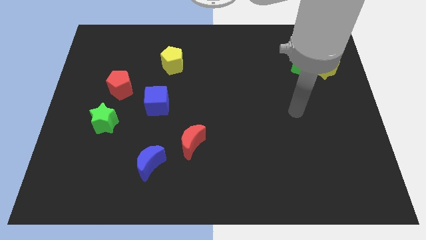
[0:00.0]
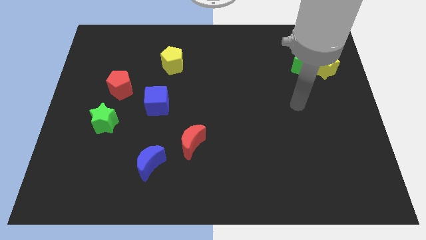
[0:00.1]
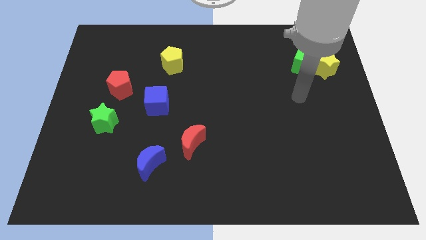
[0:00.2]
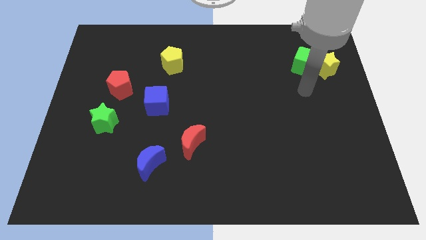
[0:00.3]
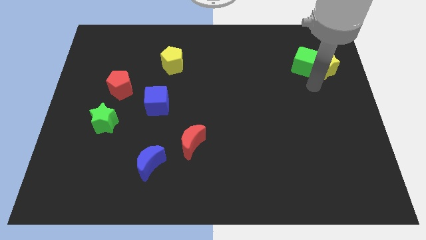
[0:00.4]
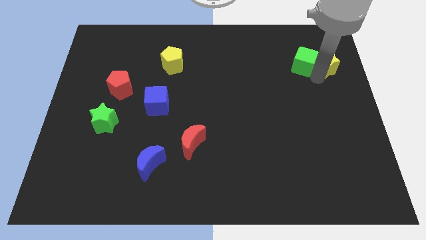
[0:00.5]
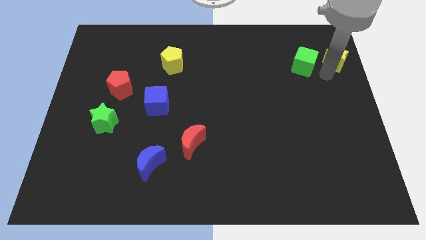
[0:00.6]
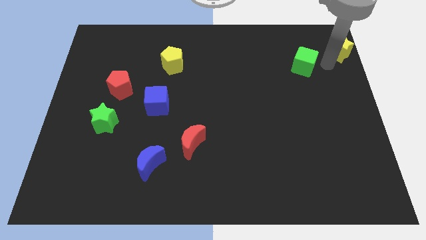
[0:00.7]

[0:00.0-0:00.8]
pull the green cube apart from the yellow star

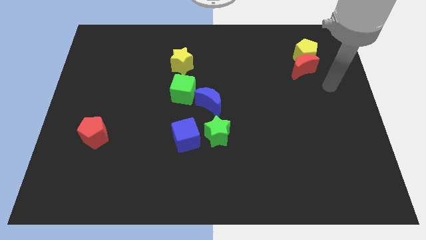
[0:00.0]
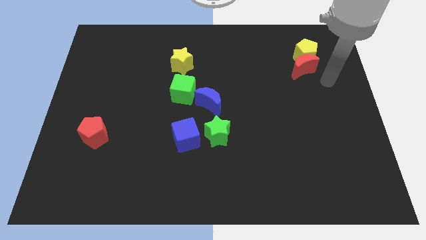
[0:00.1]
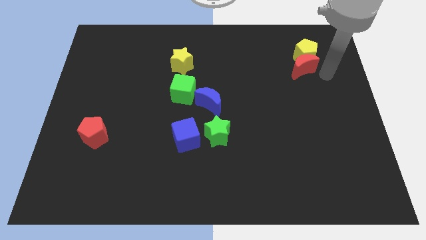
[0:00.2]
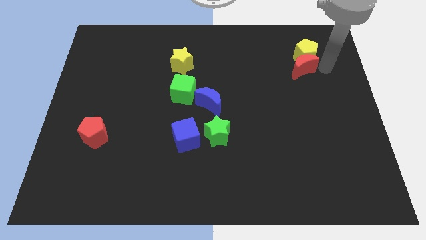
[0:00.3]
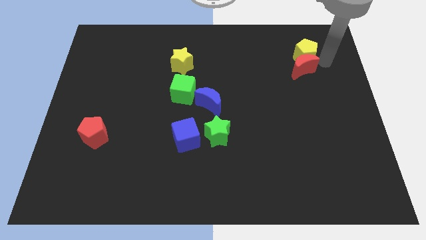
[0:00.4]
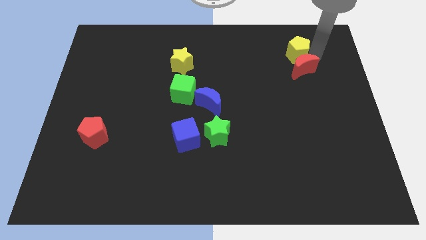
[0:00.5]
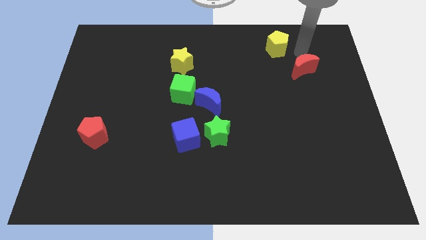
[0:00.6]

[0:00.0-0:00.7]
separate the red moon from the yellow pentagon

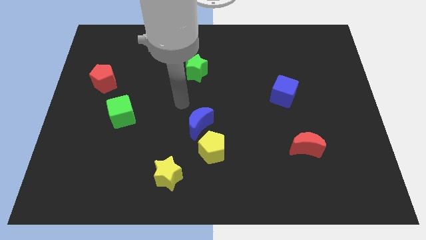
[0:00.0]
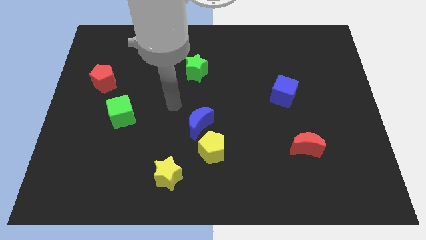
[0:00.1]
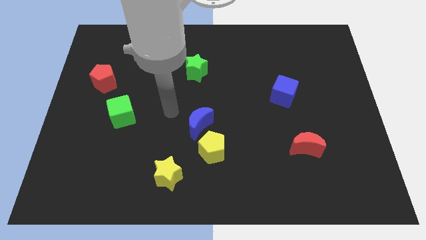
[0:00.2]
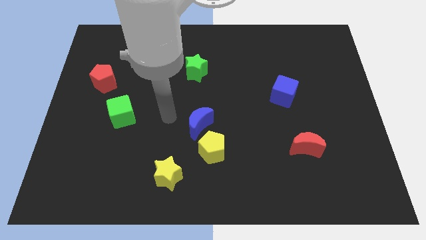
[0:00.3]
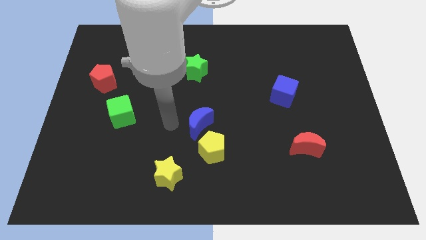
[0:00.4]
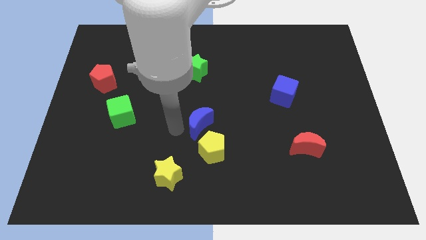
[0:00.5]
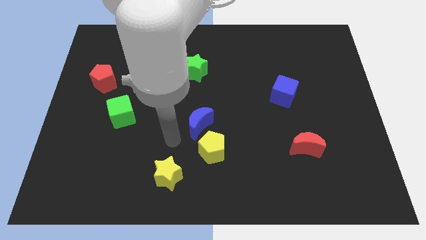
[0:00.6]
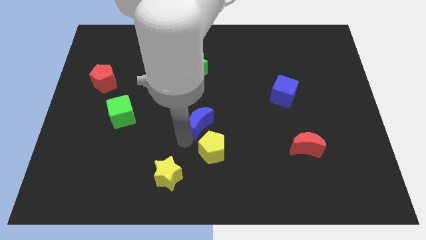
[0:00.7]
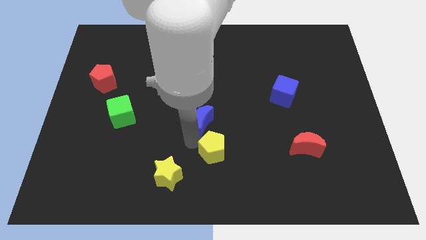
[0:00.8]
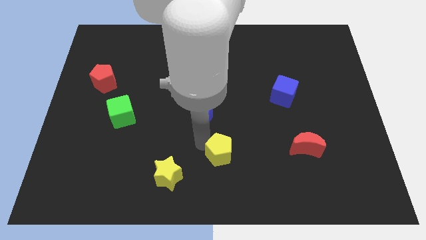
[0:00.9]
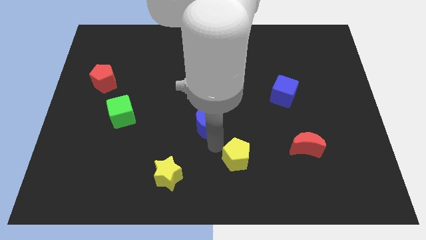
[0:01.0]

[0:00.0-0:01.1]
separate the blue moon from the yellow pentagon

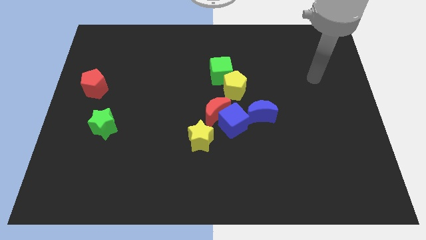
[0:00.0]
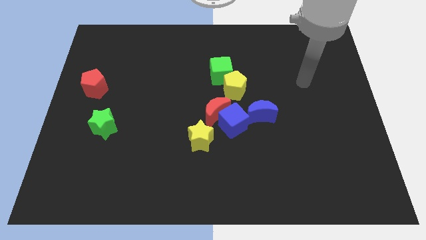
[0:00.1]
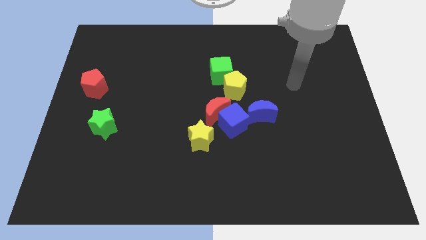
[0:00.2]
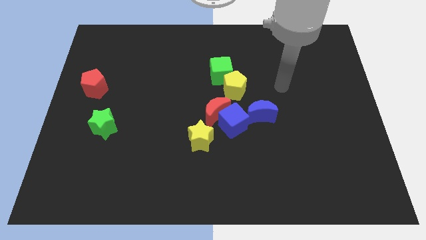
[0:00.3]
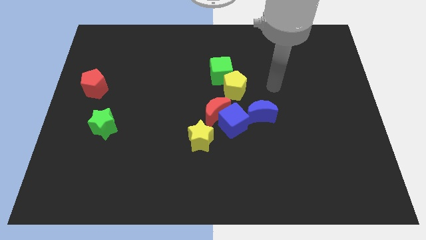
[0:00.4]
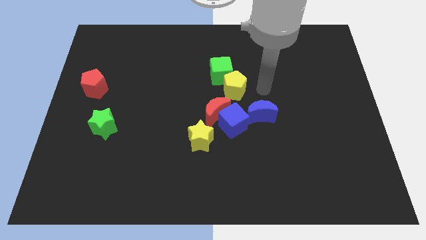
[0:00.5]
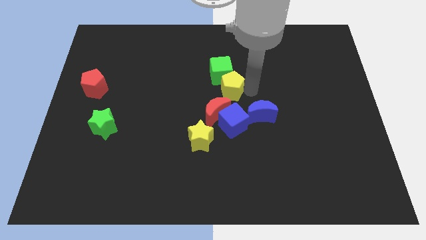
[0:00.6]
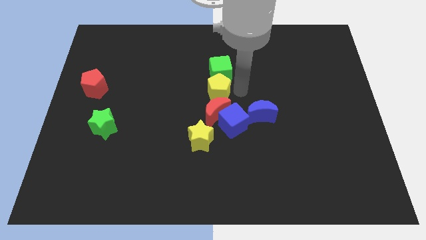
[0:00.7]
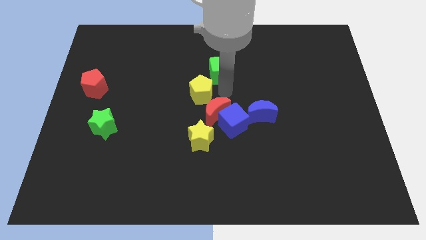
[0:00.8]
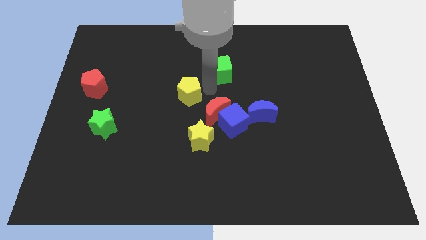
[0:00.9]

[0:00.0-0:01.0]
move the green cube away from the yellow pentagon

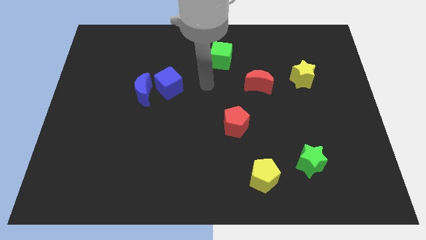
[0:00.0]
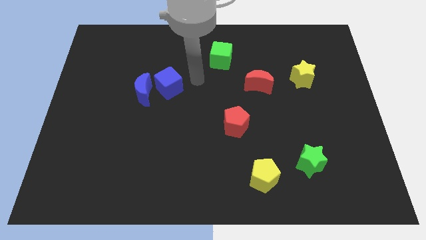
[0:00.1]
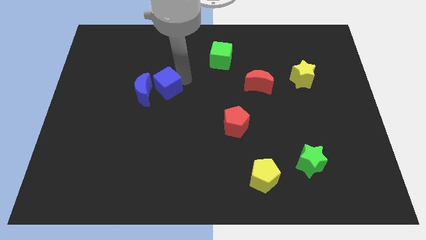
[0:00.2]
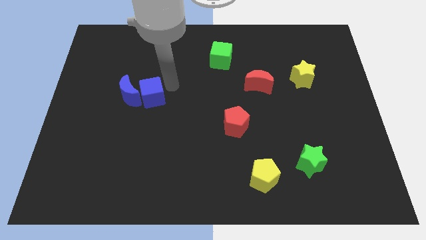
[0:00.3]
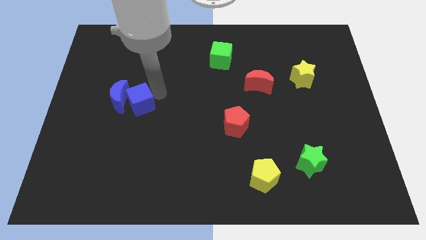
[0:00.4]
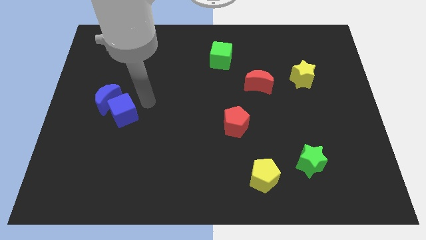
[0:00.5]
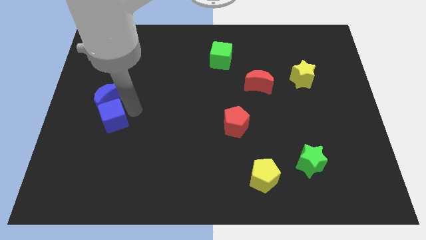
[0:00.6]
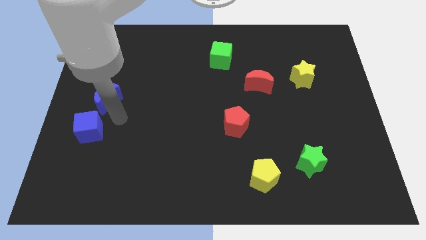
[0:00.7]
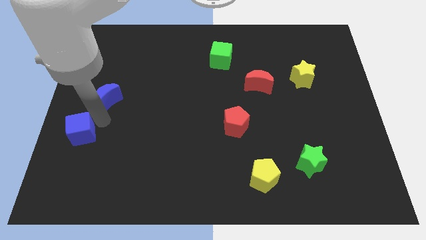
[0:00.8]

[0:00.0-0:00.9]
pull the blue moon apart from the blue cube

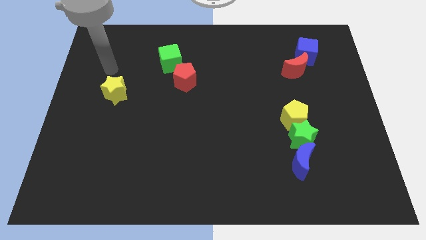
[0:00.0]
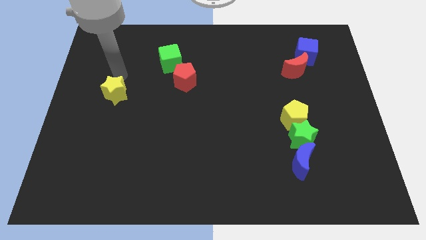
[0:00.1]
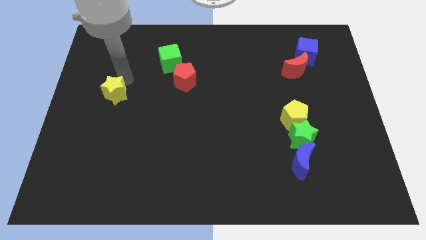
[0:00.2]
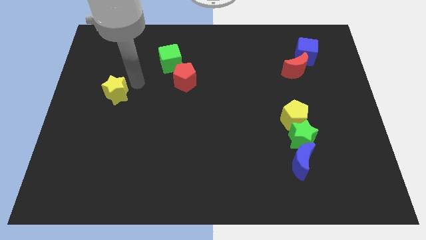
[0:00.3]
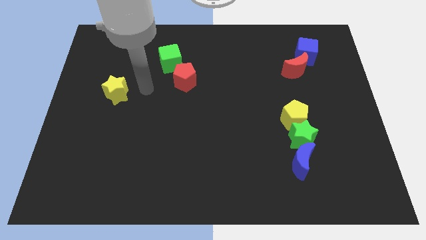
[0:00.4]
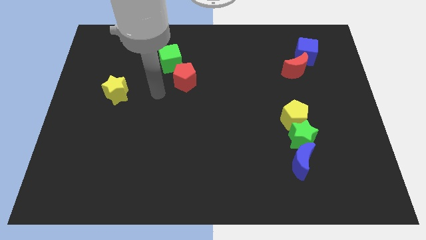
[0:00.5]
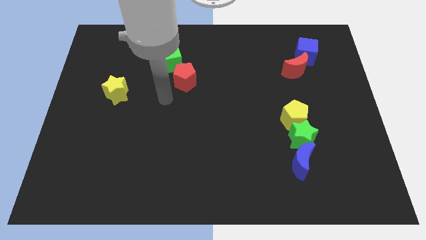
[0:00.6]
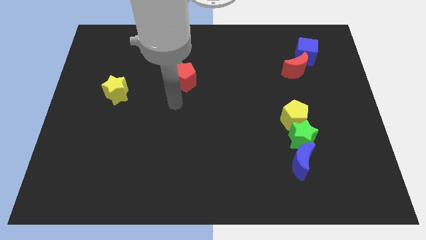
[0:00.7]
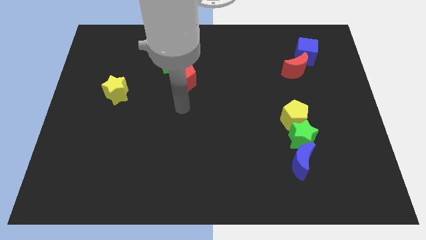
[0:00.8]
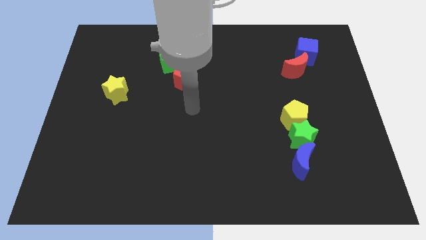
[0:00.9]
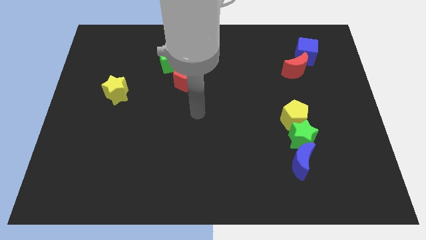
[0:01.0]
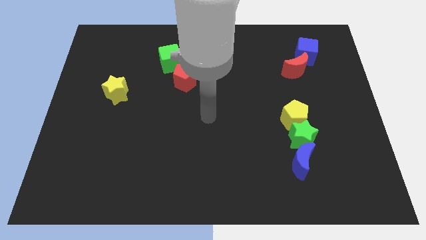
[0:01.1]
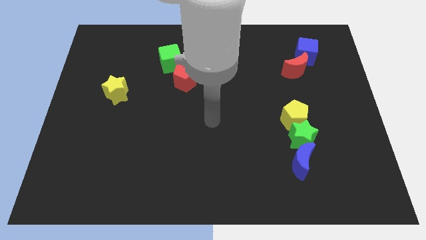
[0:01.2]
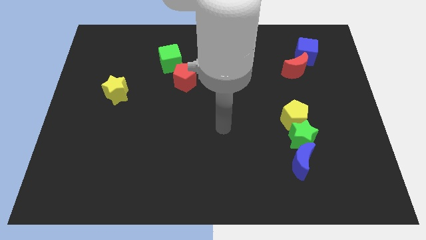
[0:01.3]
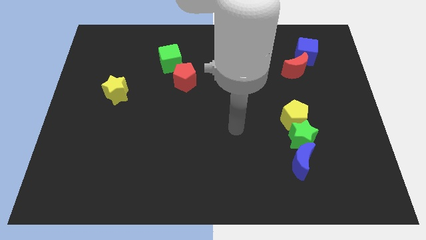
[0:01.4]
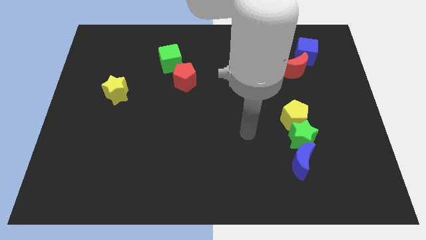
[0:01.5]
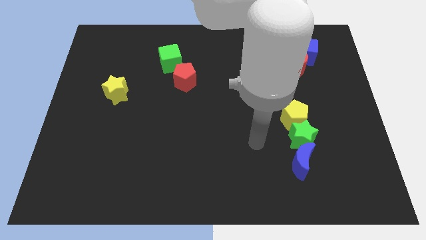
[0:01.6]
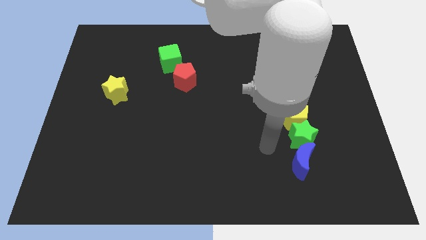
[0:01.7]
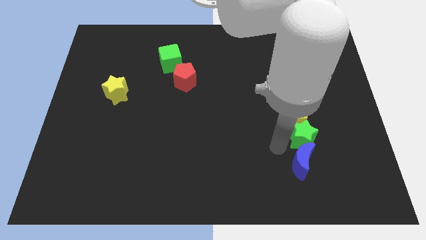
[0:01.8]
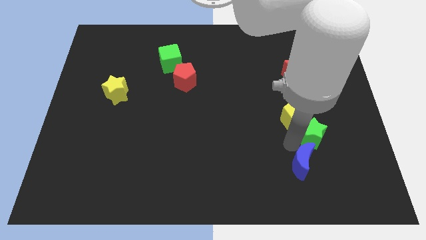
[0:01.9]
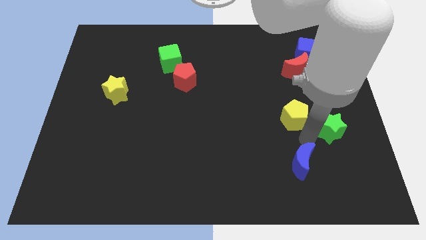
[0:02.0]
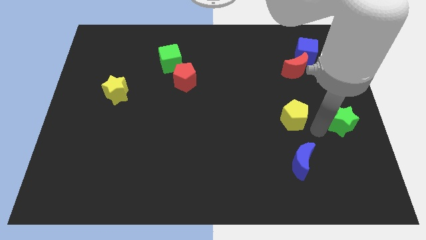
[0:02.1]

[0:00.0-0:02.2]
pull the yellow pentagon apart from the green star

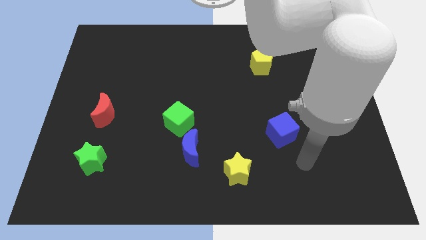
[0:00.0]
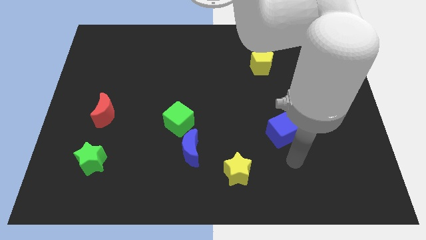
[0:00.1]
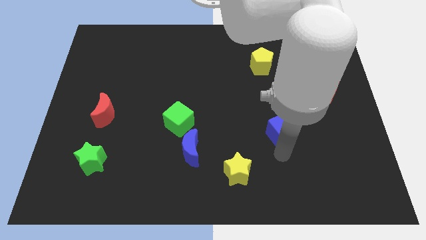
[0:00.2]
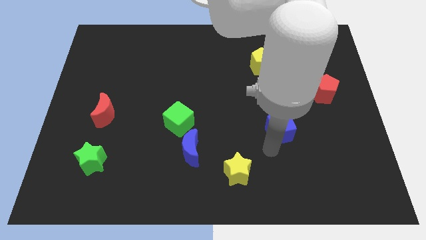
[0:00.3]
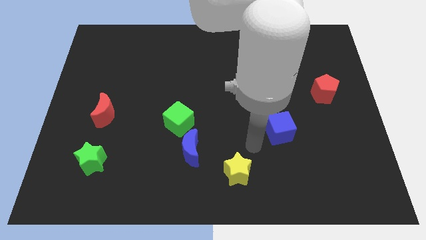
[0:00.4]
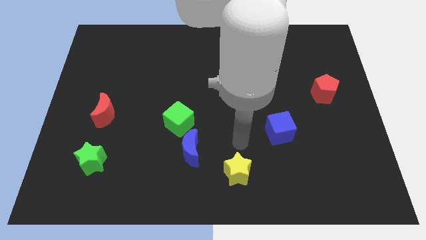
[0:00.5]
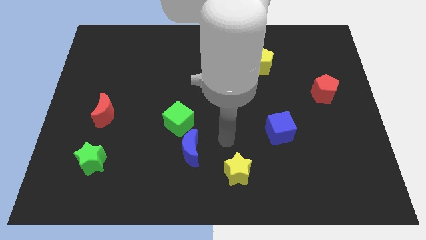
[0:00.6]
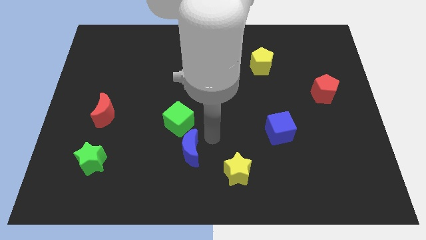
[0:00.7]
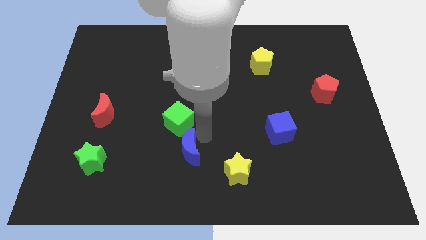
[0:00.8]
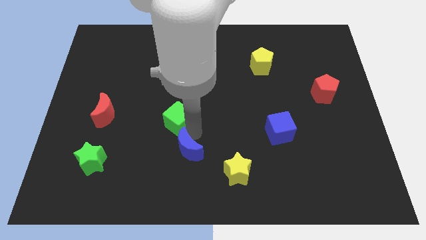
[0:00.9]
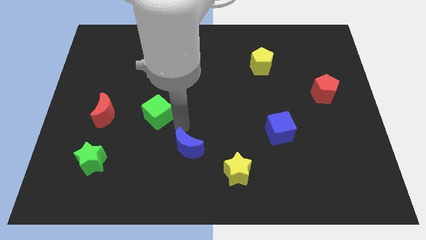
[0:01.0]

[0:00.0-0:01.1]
separate the blue moon from the green cube

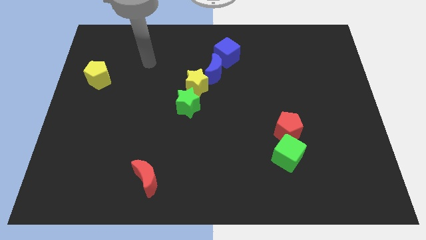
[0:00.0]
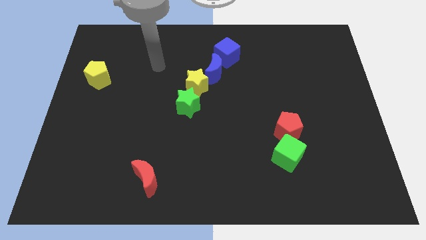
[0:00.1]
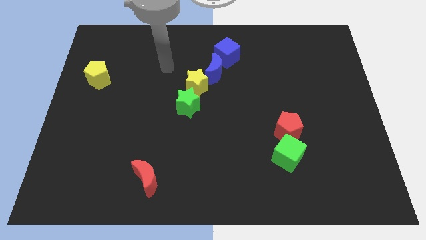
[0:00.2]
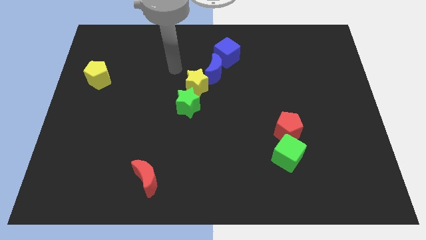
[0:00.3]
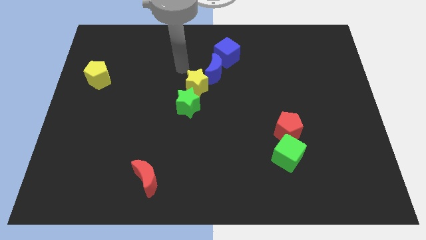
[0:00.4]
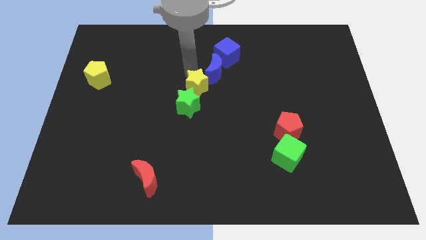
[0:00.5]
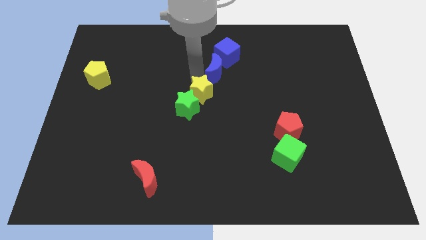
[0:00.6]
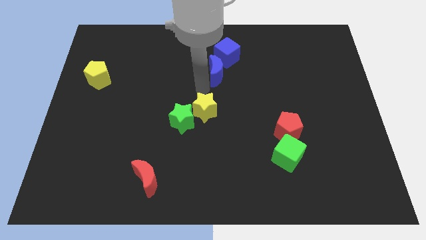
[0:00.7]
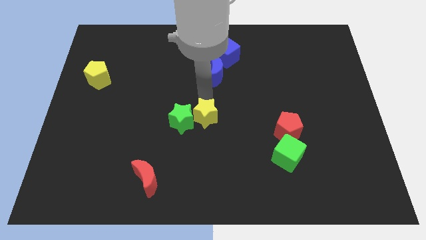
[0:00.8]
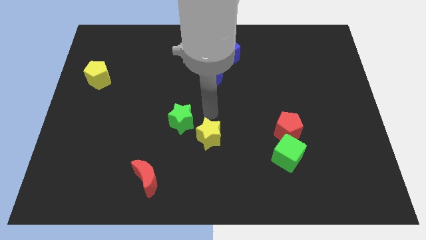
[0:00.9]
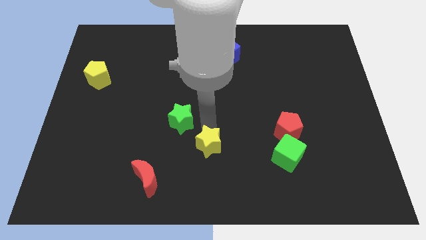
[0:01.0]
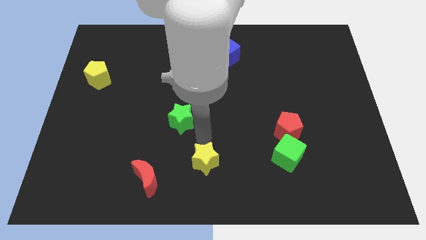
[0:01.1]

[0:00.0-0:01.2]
separate the green star from the yellow star
